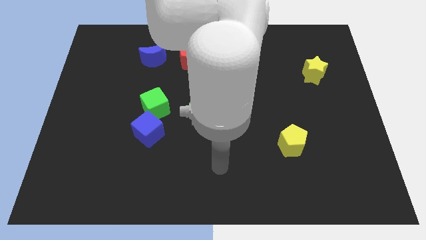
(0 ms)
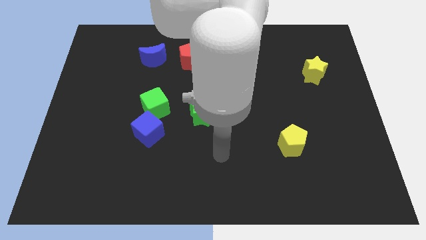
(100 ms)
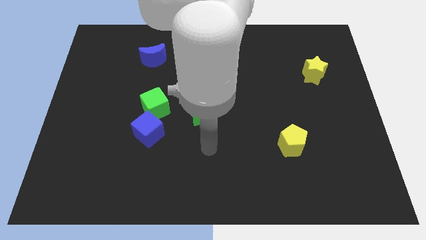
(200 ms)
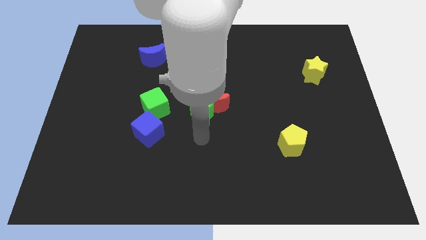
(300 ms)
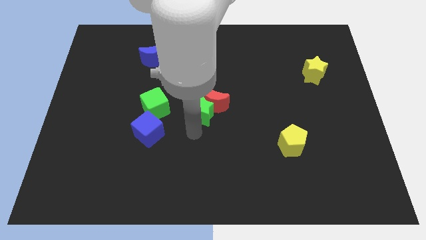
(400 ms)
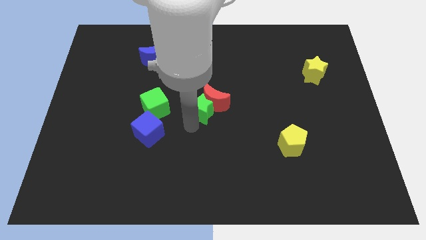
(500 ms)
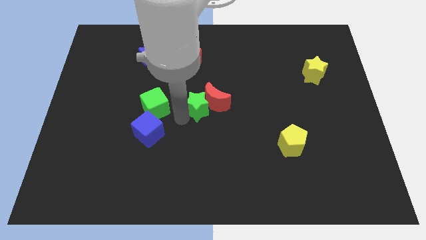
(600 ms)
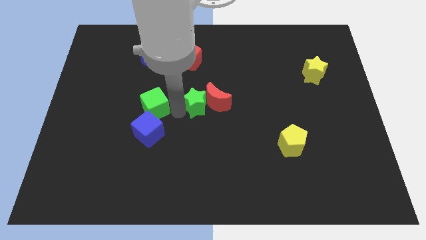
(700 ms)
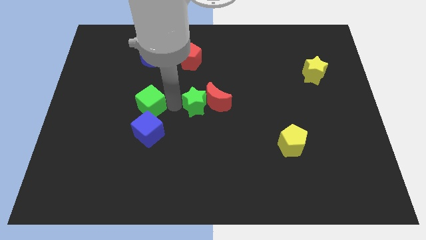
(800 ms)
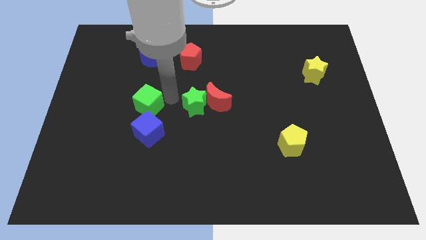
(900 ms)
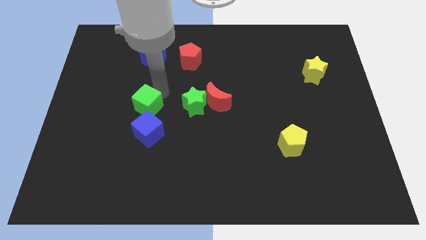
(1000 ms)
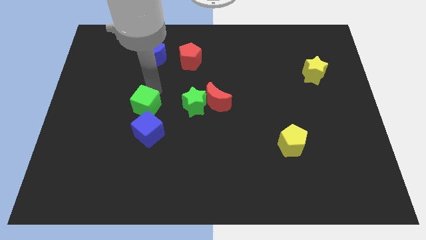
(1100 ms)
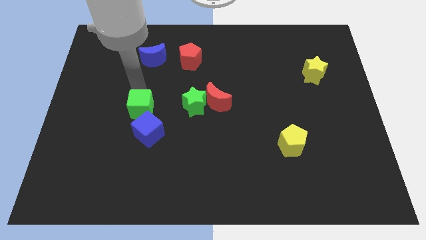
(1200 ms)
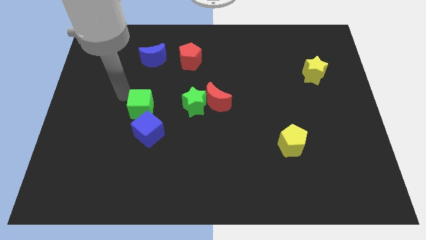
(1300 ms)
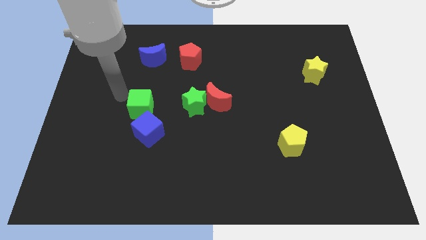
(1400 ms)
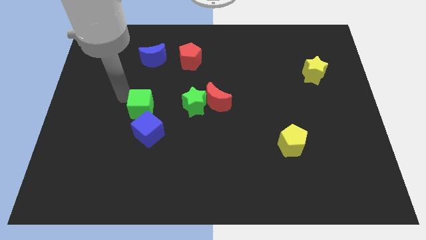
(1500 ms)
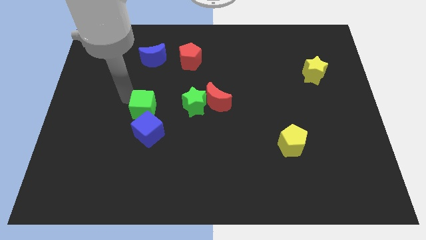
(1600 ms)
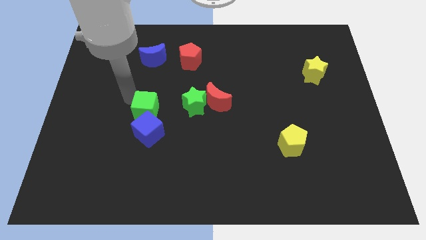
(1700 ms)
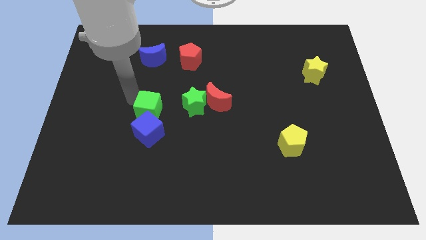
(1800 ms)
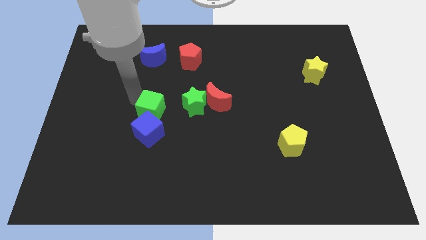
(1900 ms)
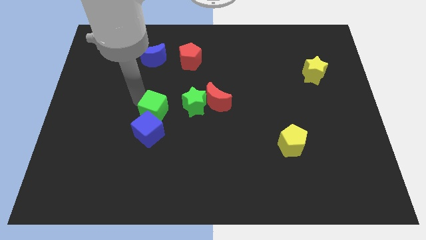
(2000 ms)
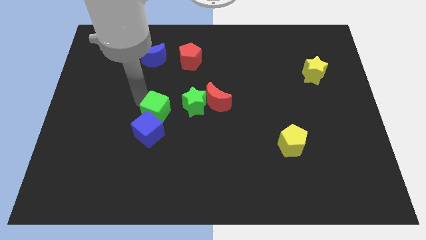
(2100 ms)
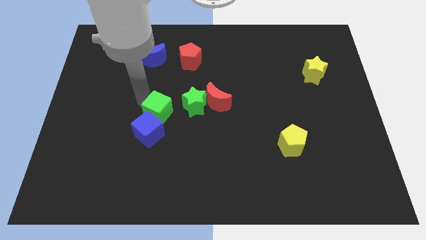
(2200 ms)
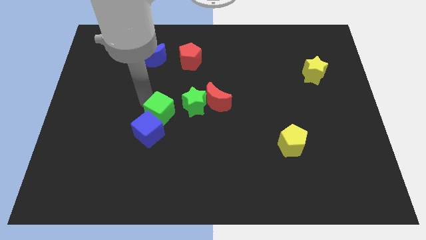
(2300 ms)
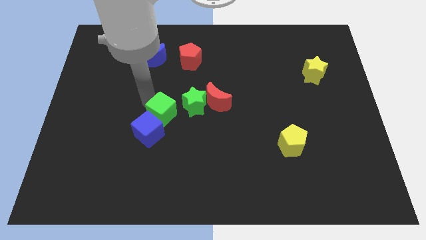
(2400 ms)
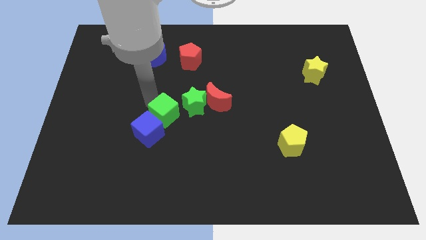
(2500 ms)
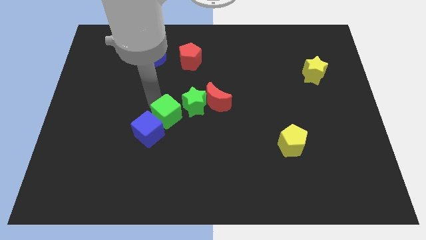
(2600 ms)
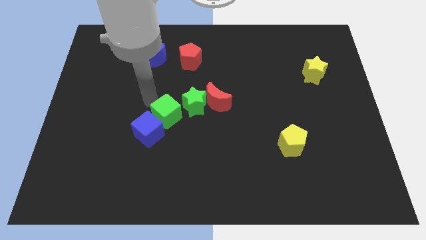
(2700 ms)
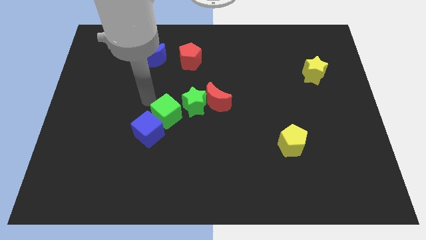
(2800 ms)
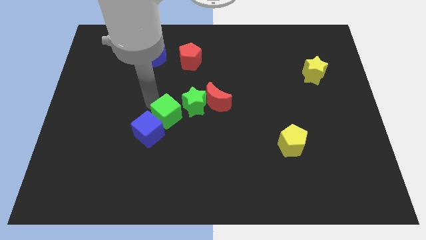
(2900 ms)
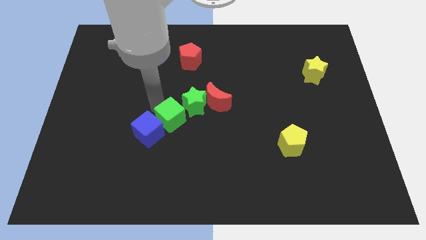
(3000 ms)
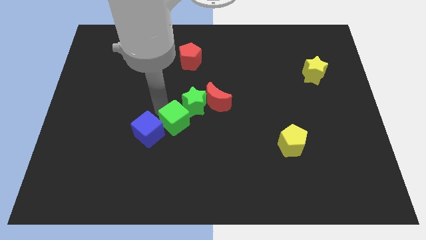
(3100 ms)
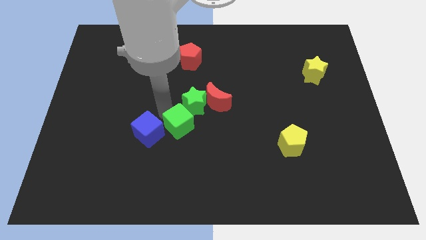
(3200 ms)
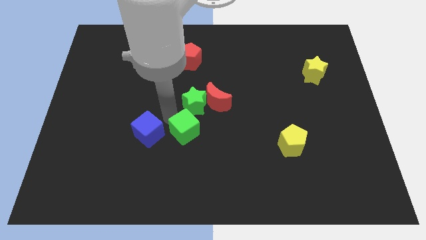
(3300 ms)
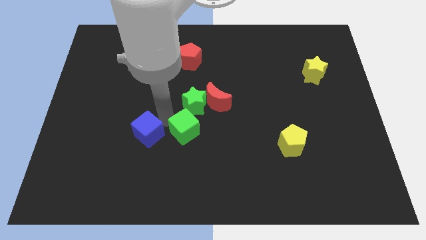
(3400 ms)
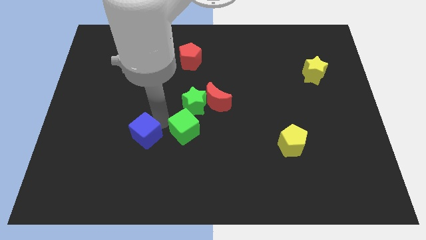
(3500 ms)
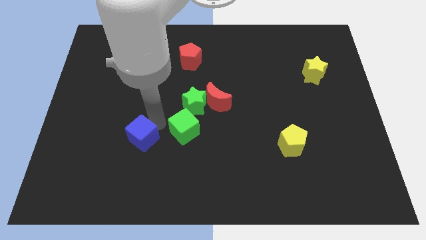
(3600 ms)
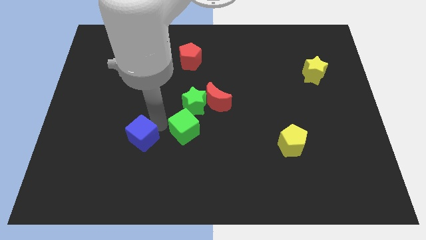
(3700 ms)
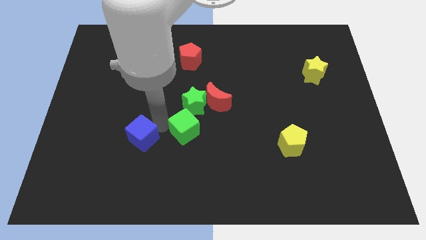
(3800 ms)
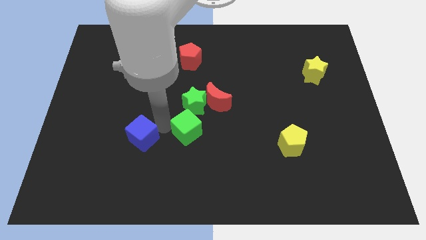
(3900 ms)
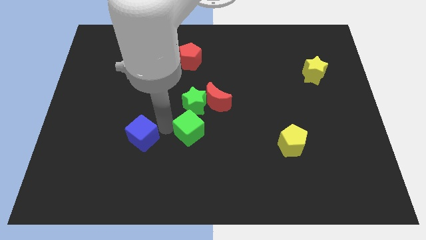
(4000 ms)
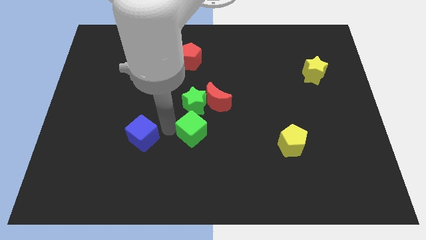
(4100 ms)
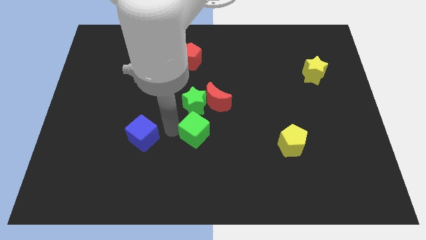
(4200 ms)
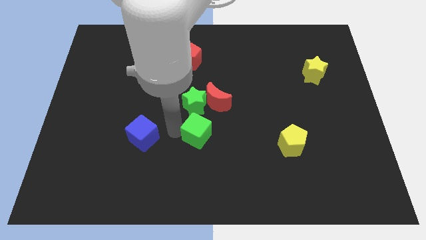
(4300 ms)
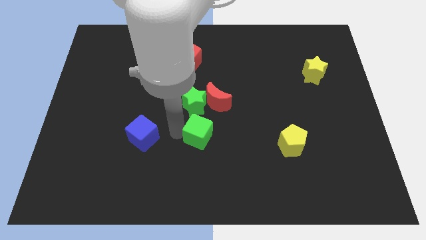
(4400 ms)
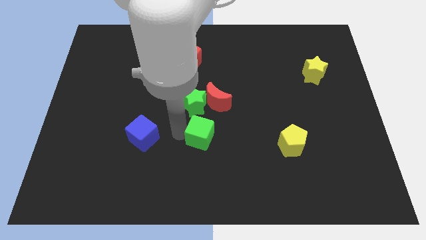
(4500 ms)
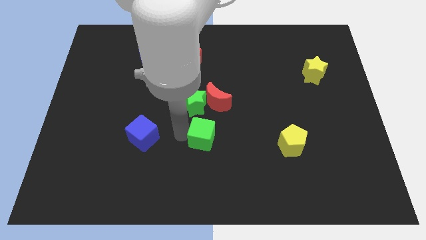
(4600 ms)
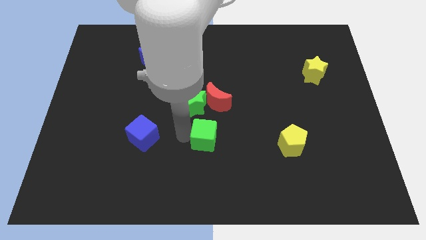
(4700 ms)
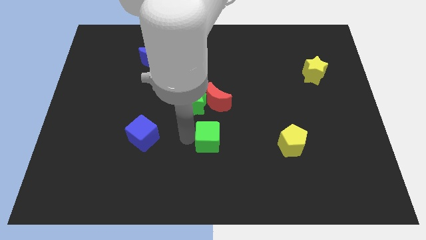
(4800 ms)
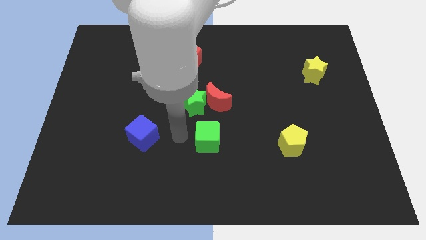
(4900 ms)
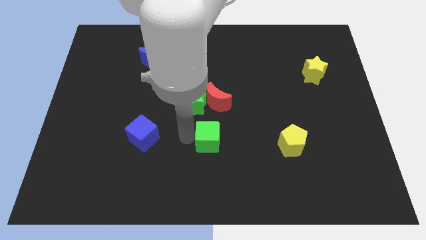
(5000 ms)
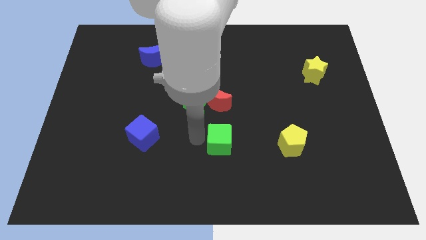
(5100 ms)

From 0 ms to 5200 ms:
move the green cube left of the yellow pentagon

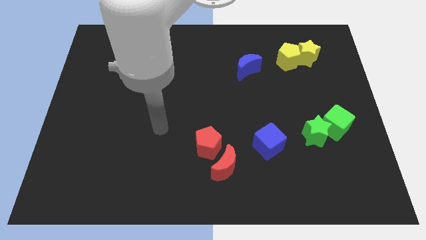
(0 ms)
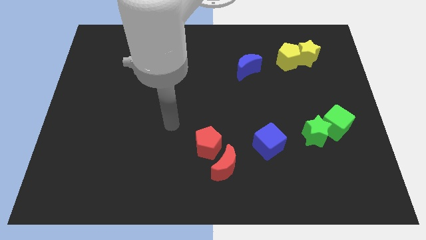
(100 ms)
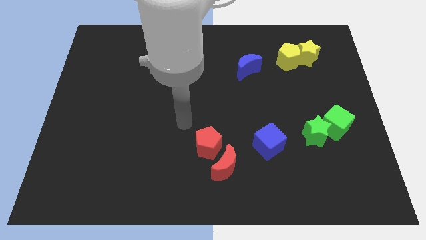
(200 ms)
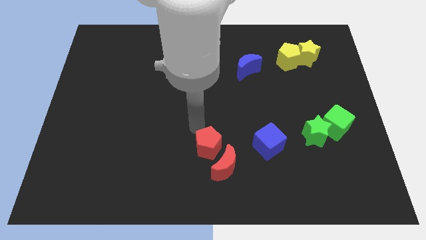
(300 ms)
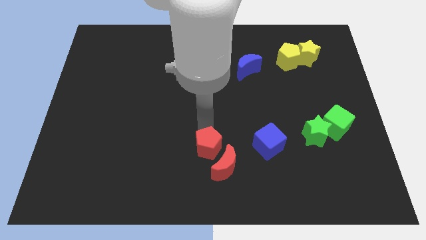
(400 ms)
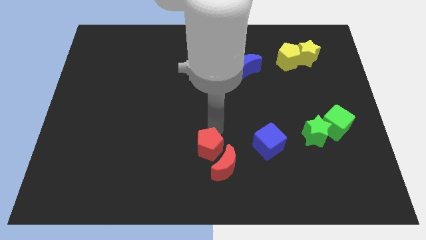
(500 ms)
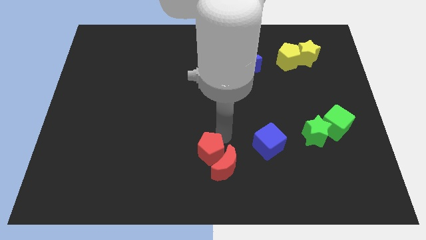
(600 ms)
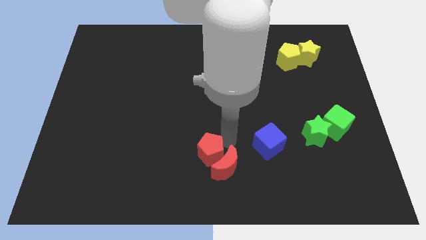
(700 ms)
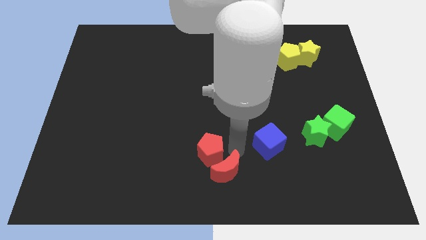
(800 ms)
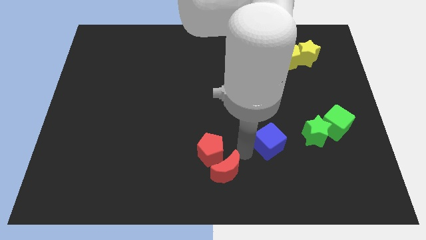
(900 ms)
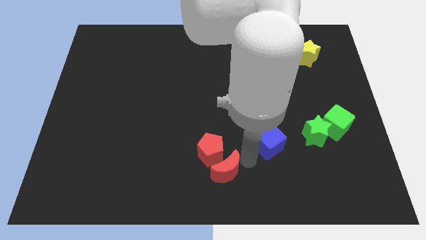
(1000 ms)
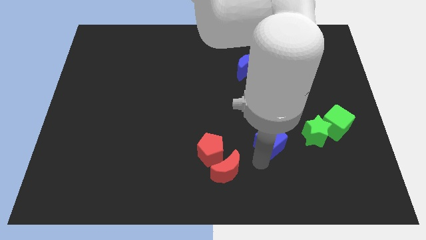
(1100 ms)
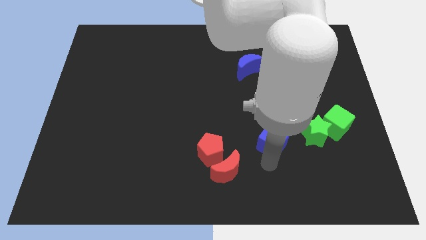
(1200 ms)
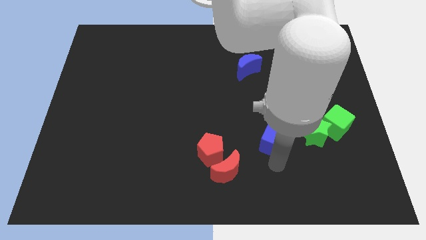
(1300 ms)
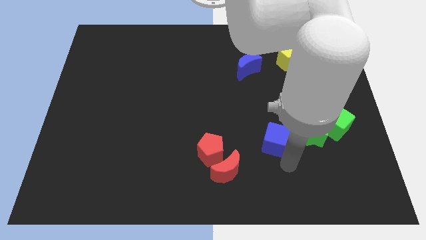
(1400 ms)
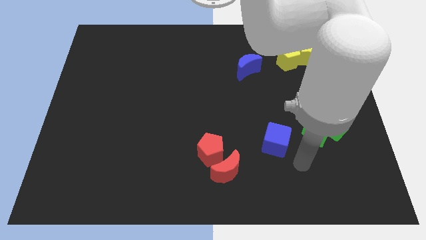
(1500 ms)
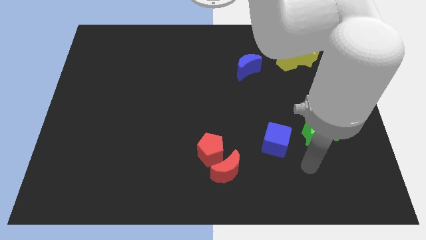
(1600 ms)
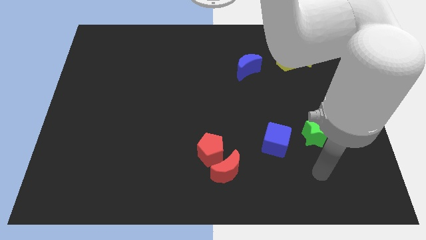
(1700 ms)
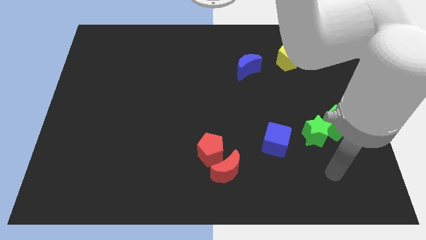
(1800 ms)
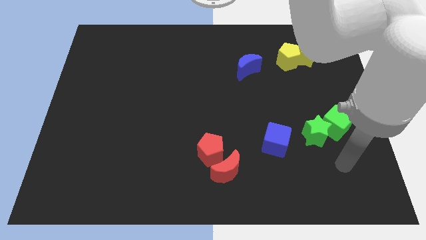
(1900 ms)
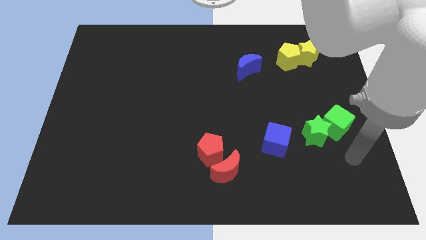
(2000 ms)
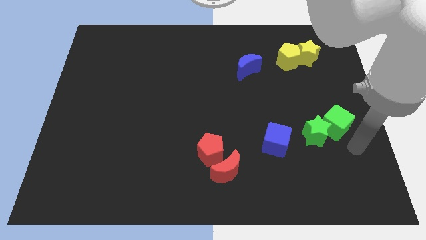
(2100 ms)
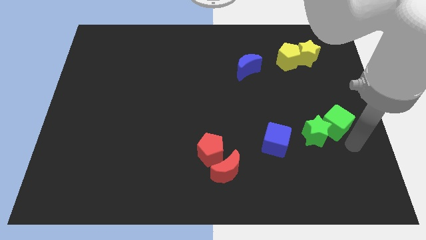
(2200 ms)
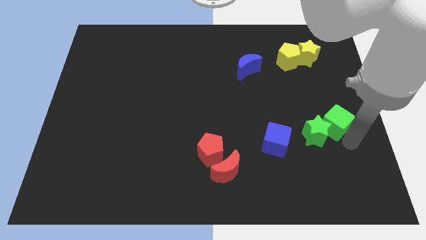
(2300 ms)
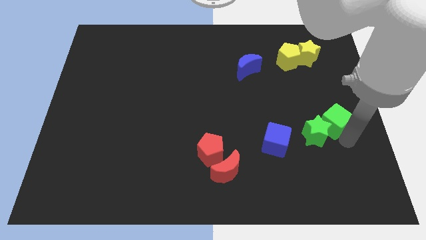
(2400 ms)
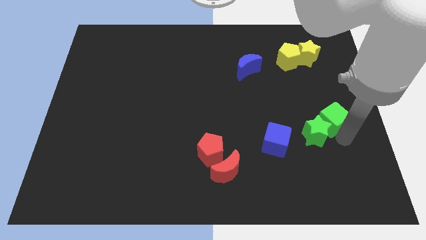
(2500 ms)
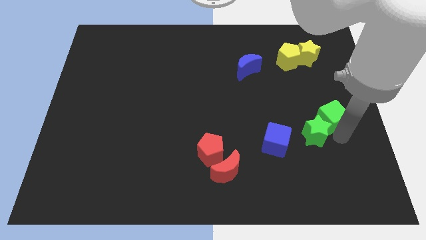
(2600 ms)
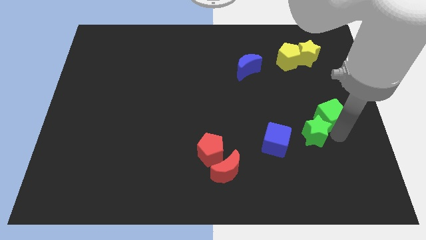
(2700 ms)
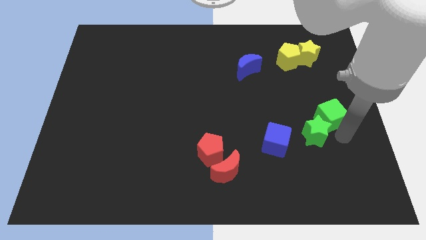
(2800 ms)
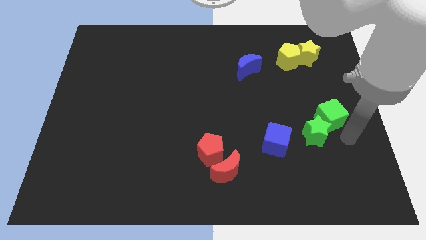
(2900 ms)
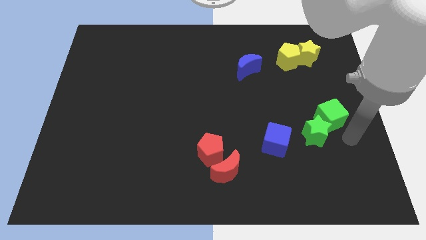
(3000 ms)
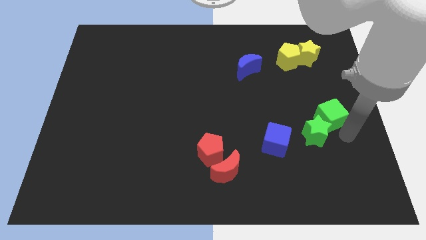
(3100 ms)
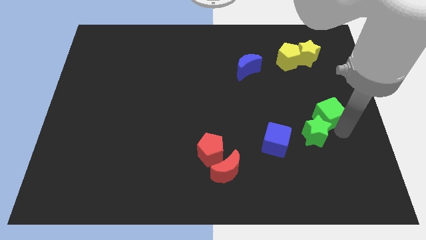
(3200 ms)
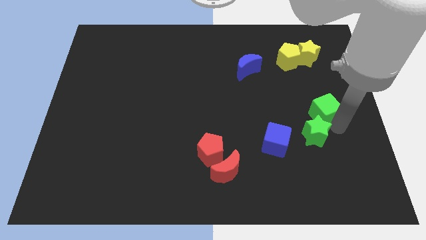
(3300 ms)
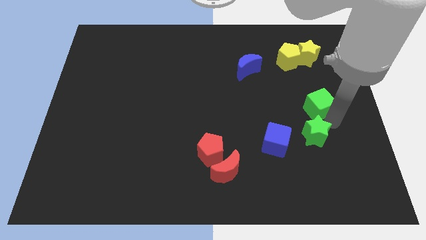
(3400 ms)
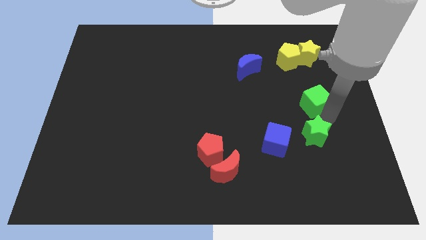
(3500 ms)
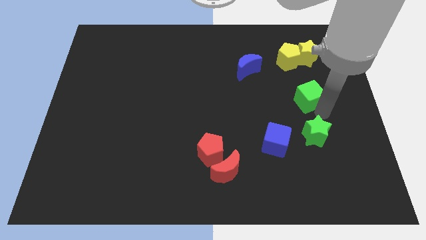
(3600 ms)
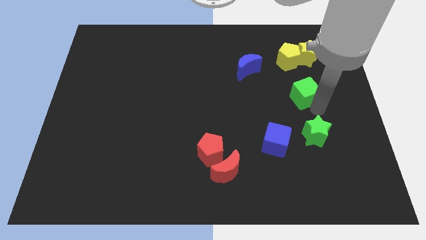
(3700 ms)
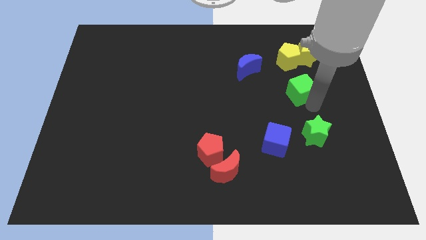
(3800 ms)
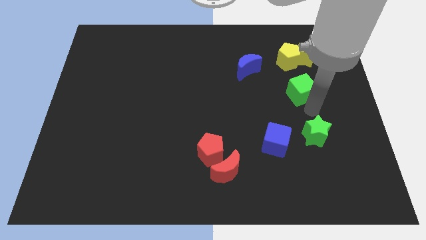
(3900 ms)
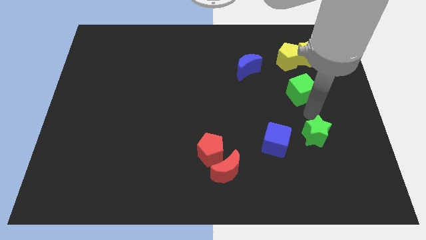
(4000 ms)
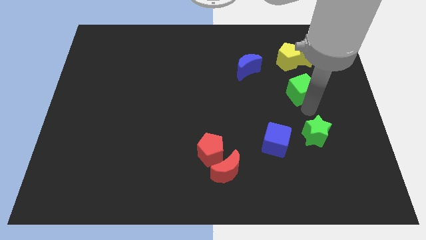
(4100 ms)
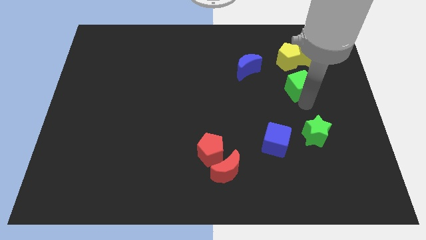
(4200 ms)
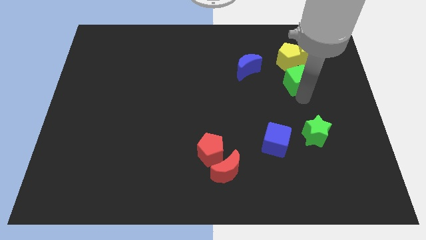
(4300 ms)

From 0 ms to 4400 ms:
put the green cube to the bottom left side of the yellow star
